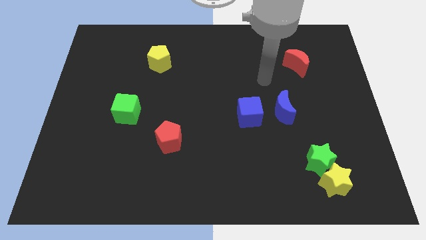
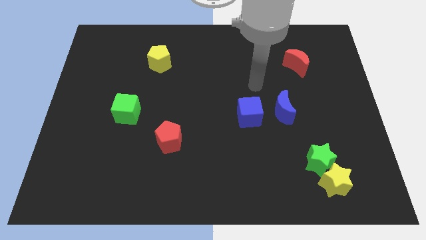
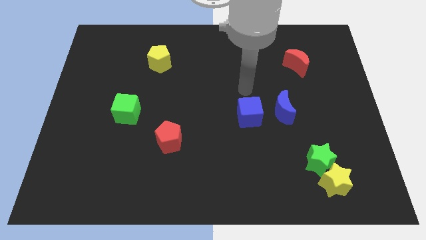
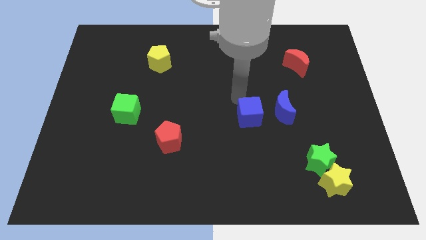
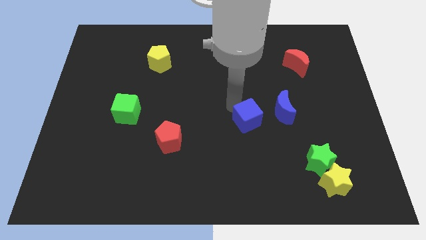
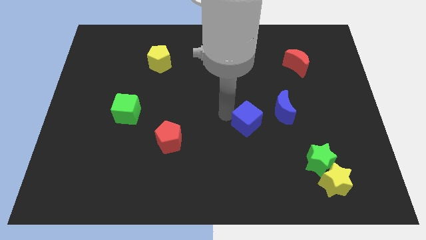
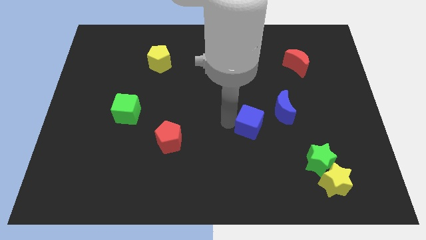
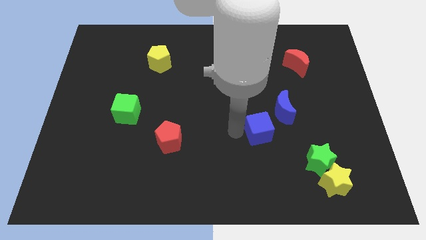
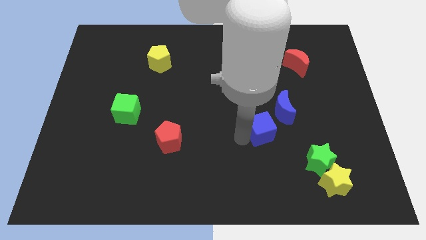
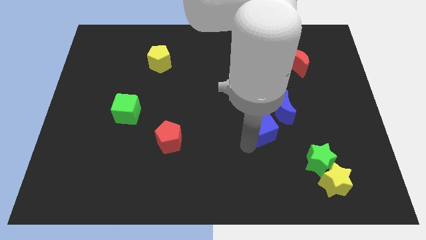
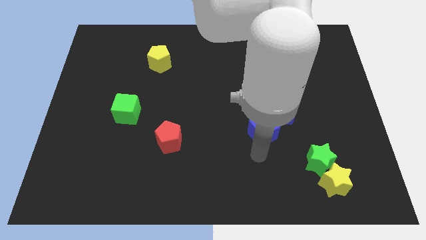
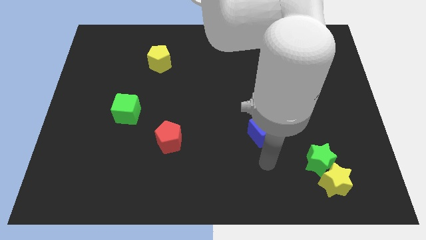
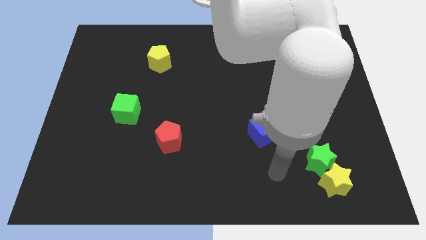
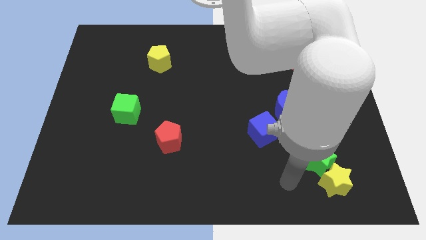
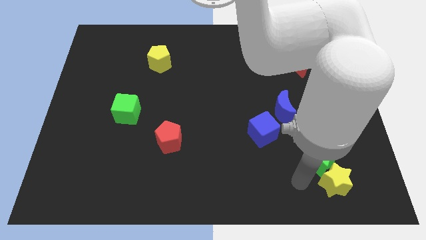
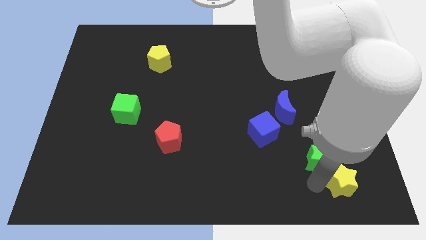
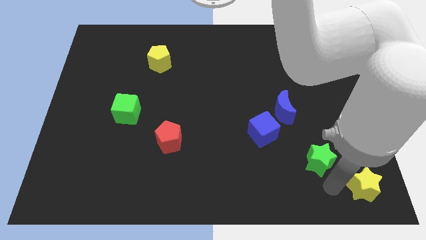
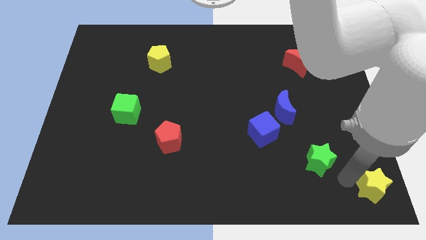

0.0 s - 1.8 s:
separate the green star from the yellow star

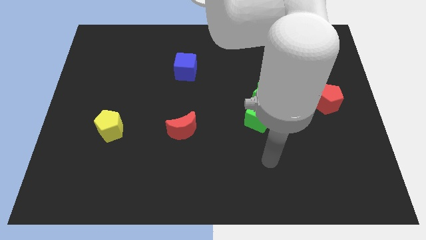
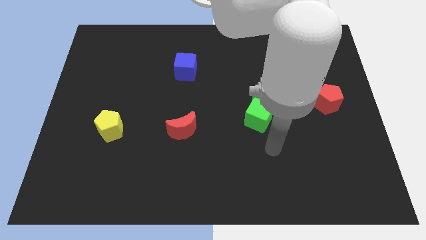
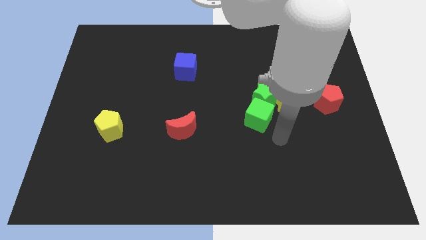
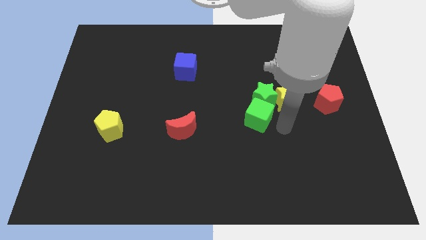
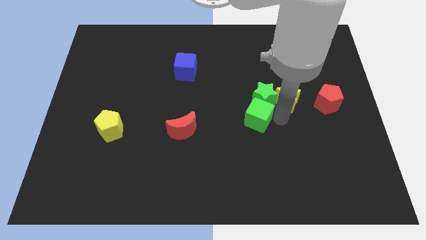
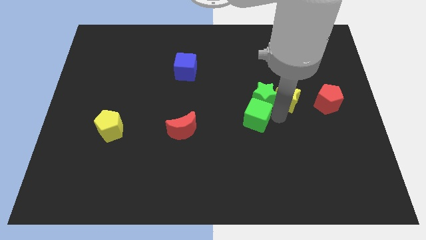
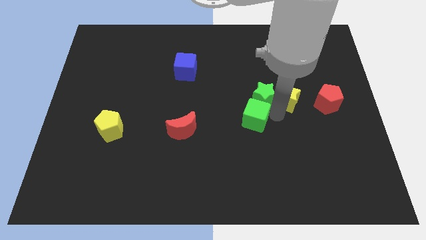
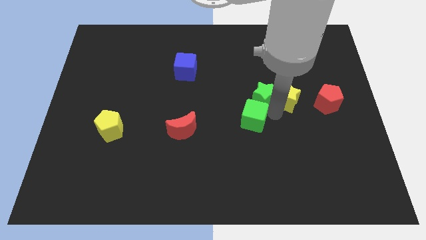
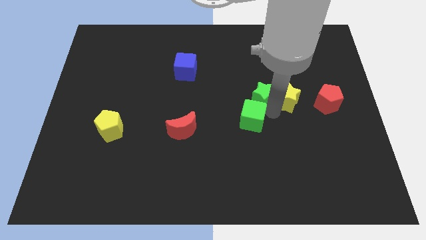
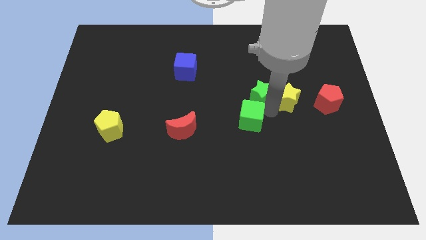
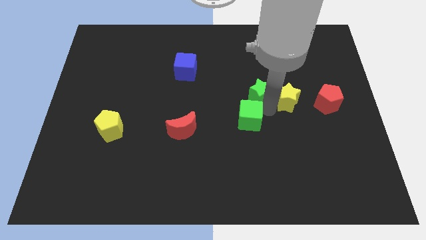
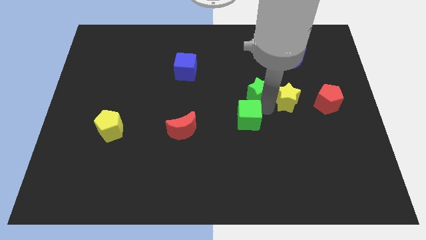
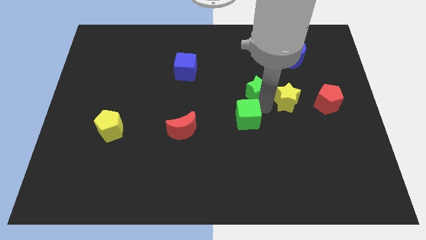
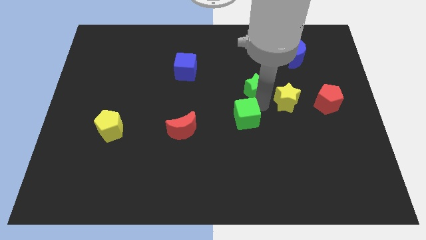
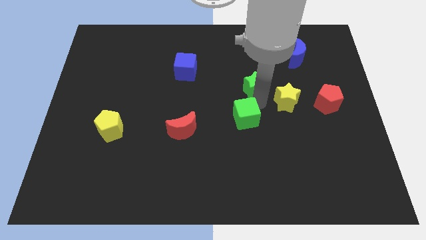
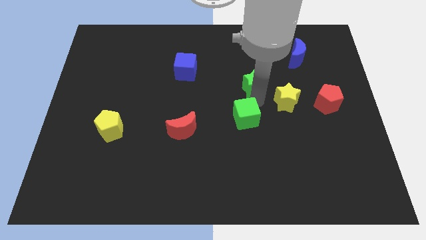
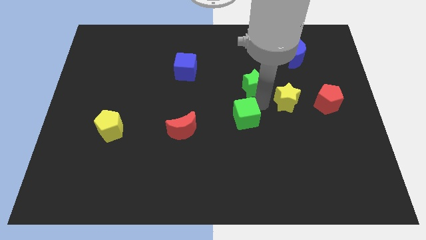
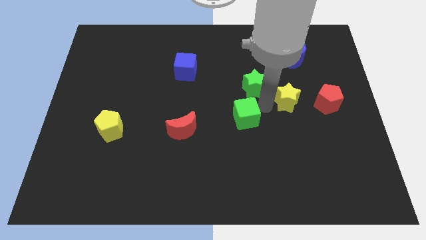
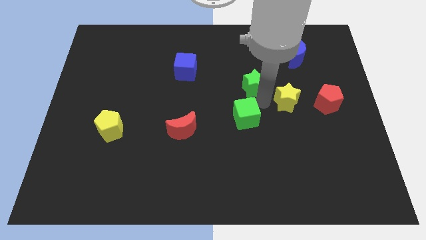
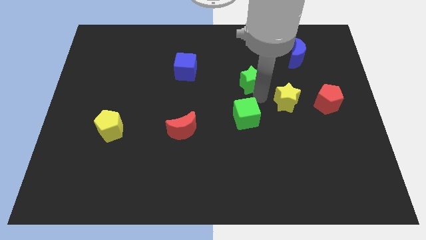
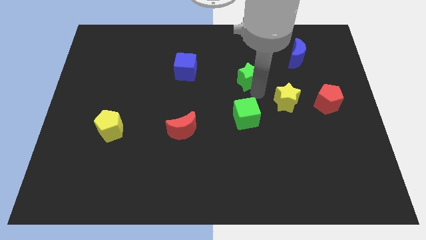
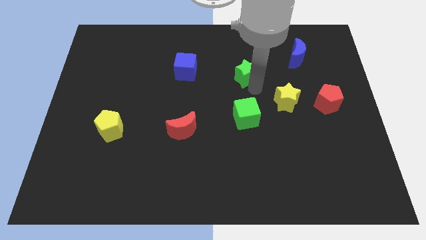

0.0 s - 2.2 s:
pull the green star apart from the yellow star and green cube

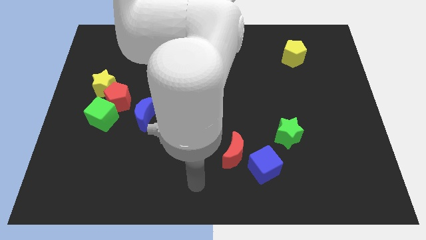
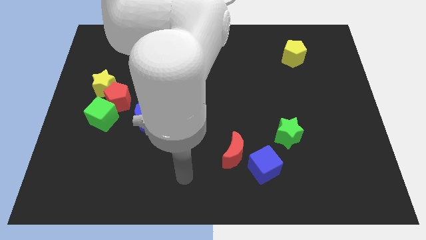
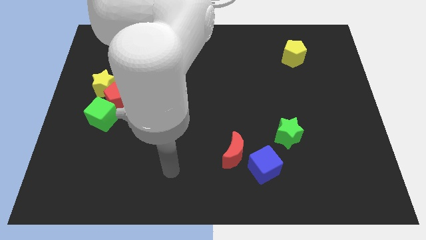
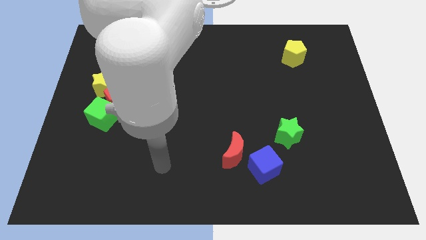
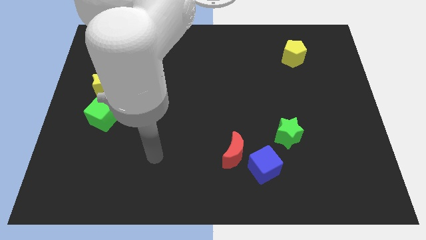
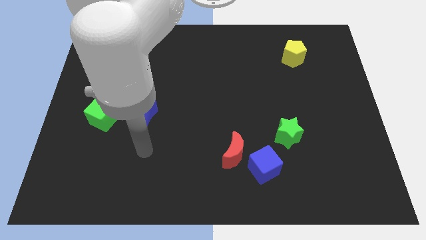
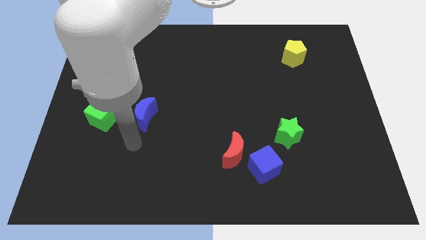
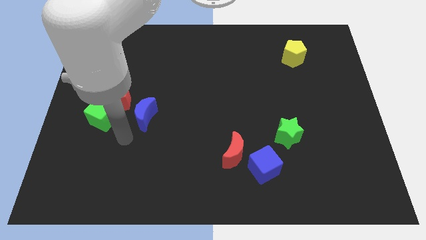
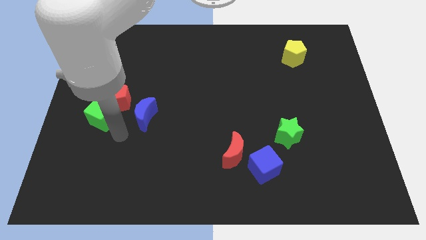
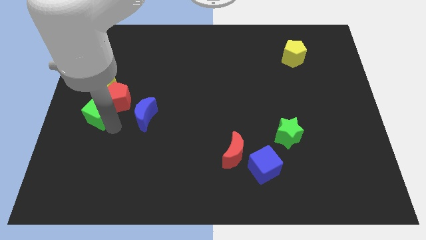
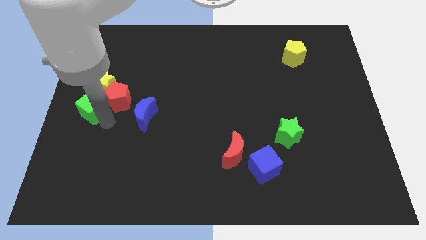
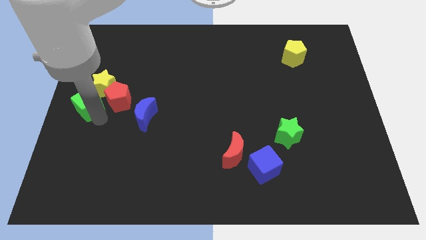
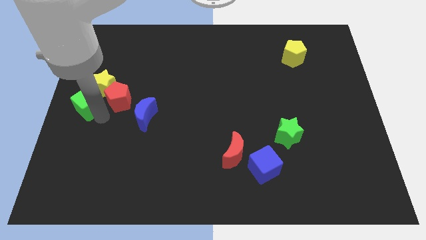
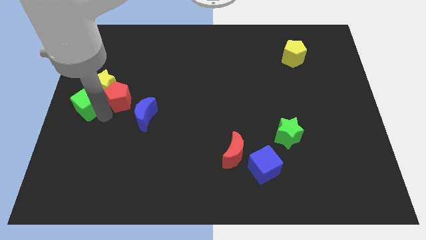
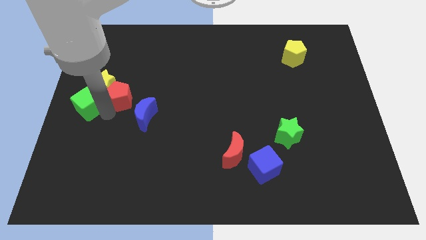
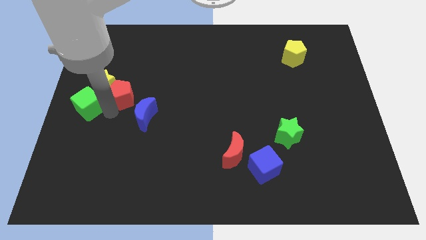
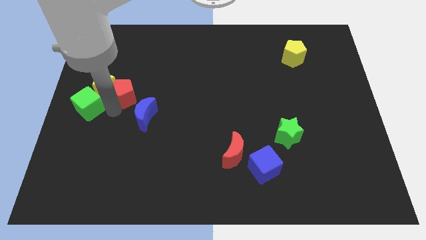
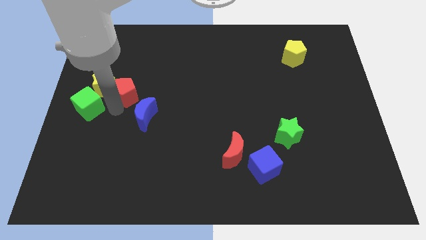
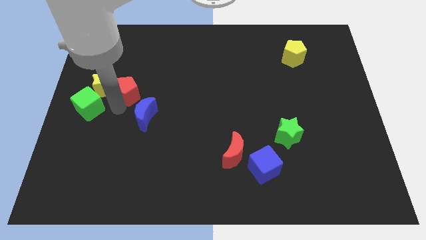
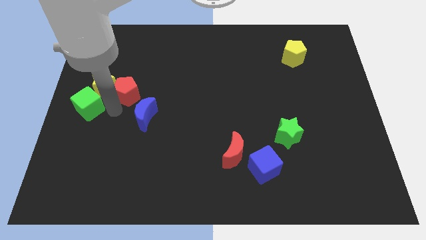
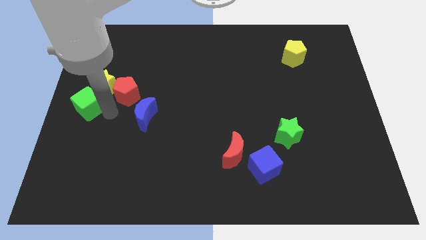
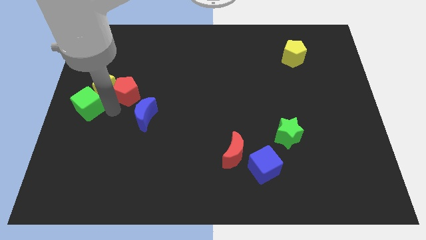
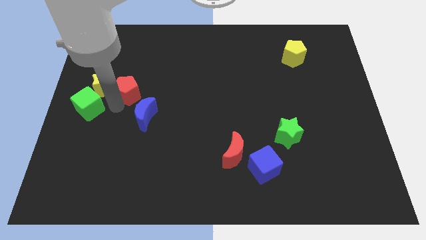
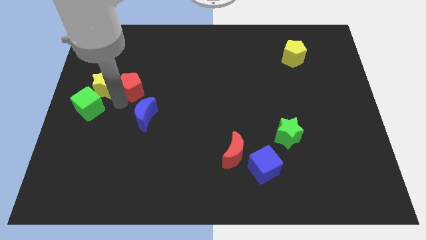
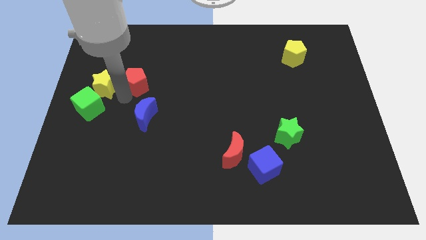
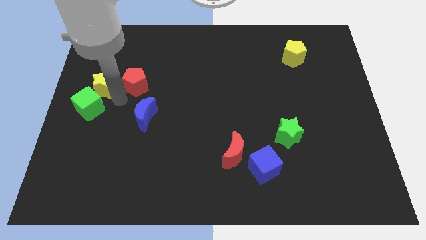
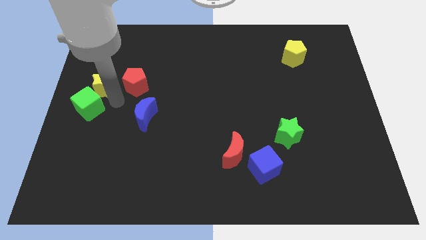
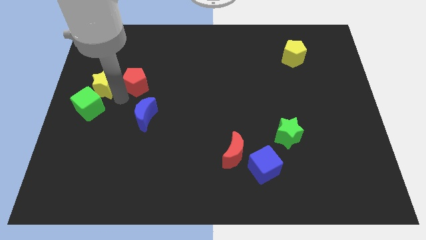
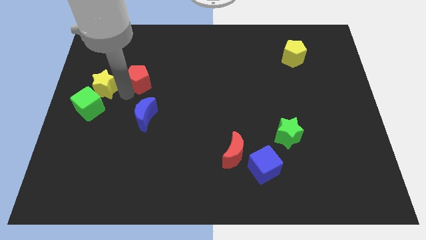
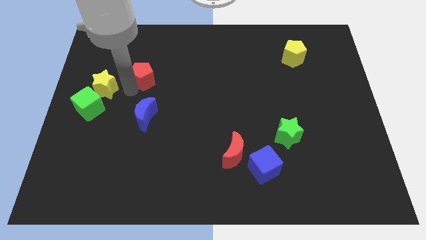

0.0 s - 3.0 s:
move the red pentagon away from the yellow star, green cube, and blue moon

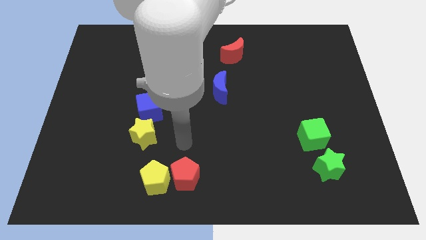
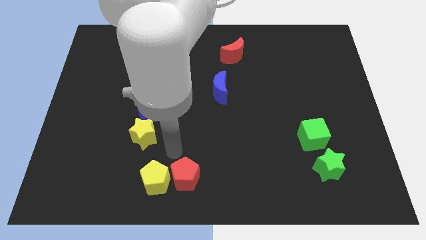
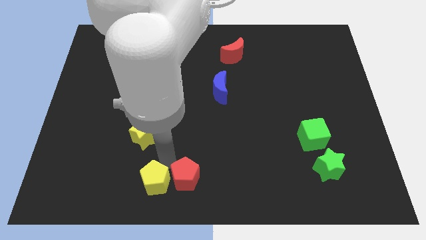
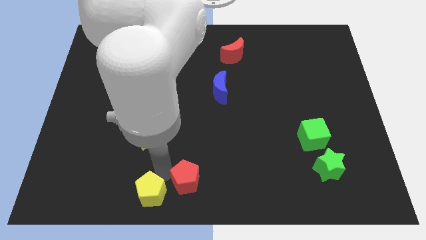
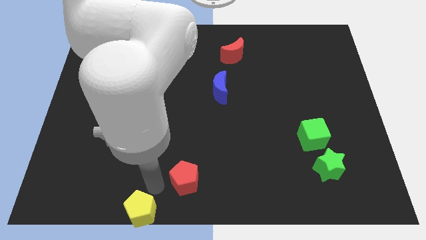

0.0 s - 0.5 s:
move the red pentagon away from the yellow pentagon

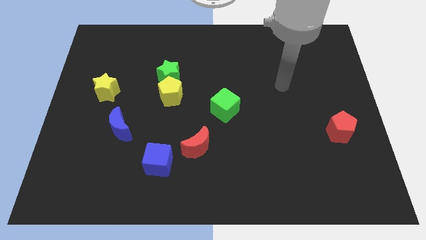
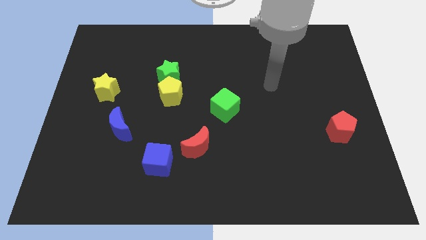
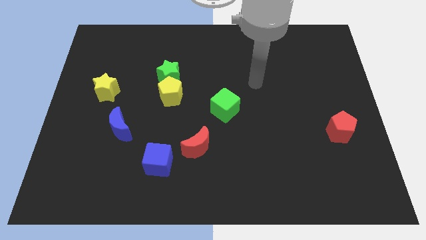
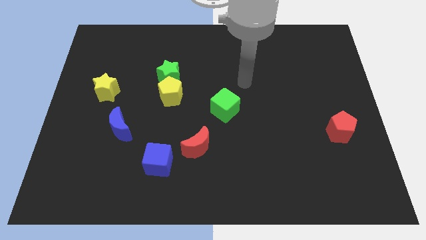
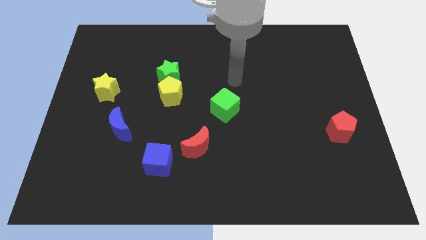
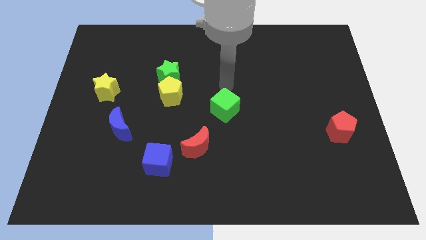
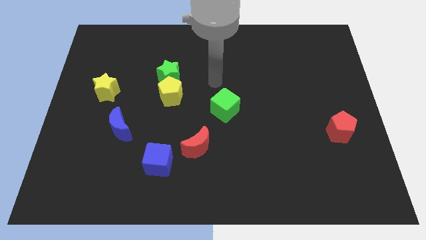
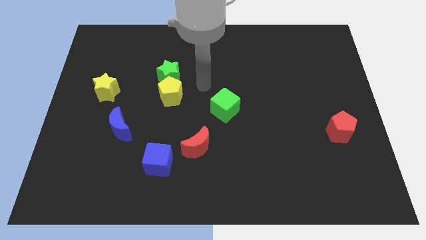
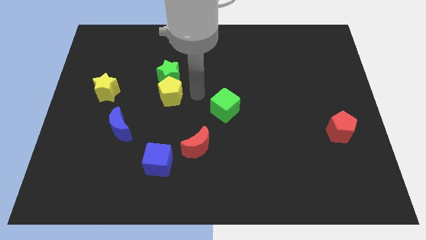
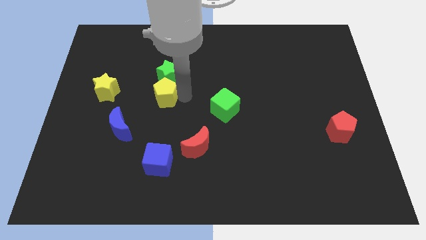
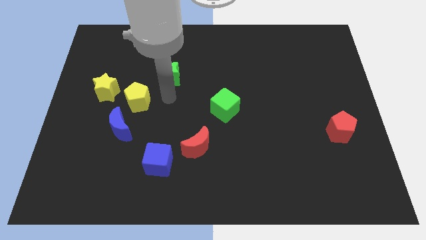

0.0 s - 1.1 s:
pull the green star apart from the yellow pentagon

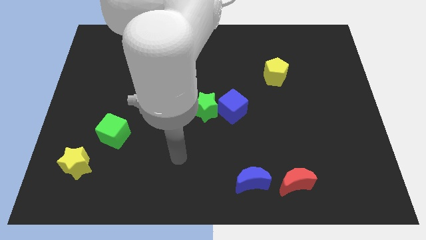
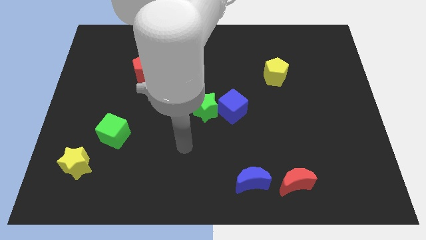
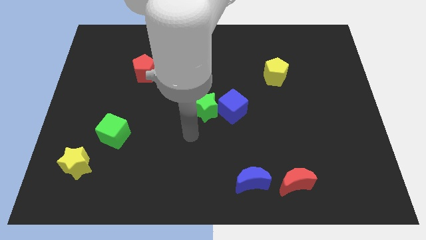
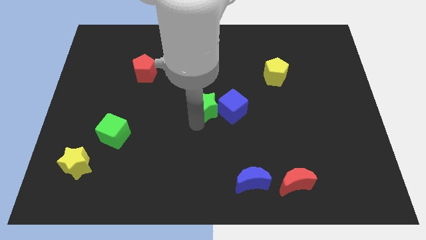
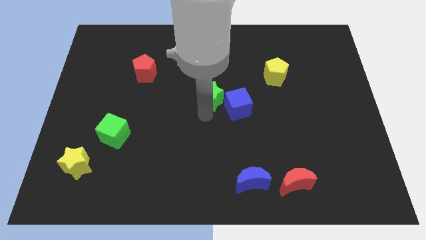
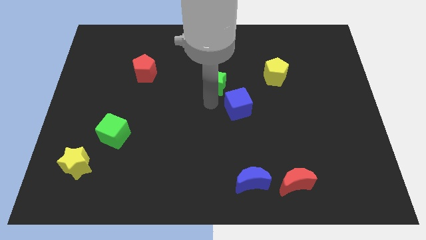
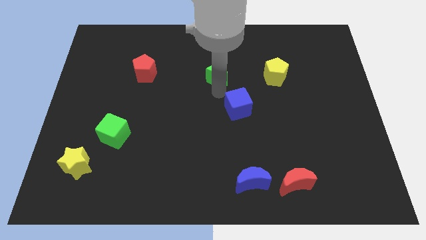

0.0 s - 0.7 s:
pull the blue cube apart from the green star
